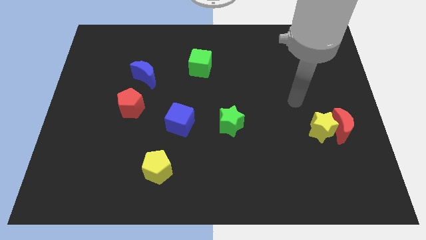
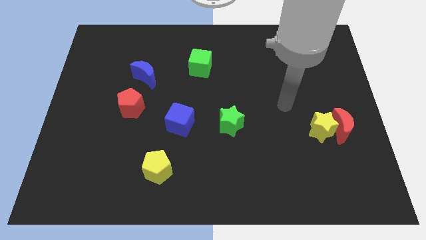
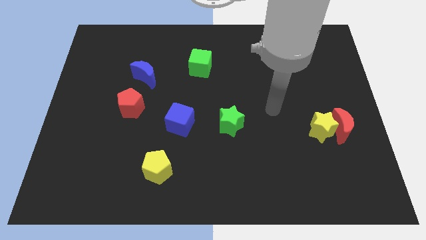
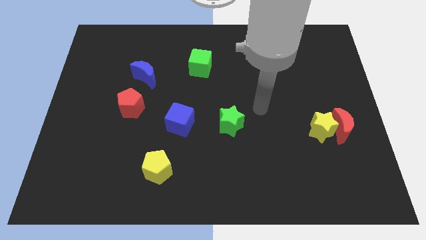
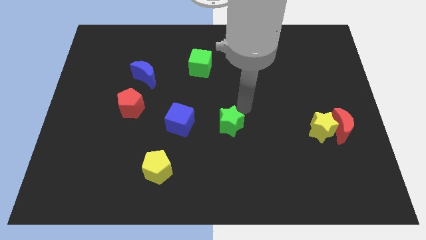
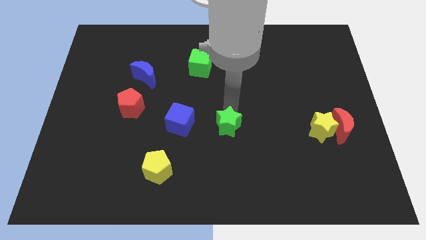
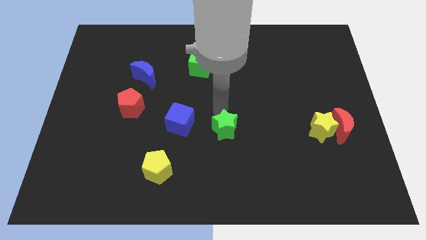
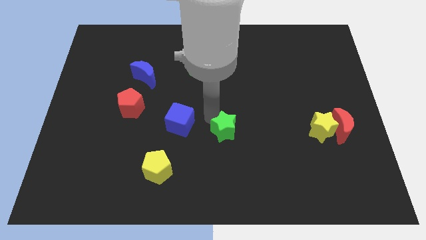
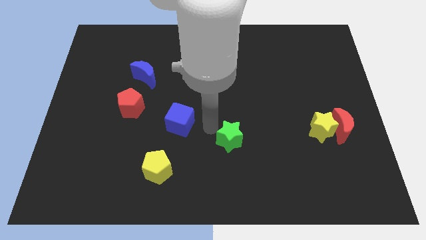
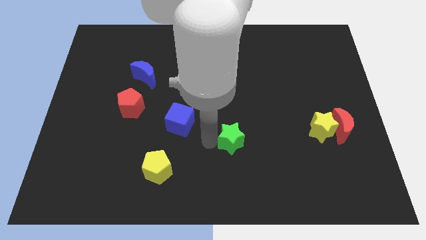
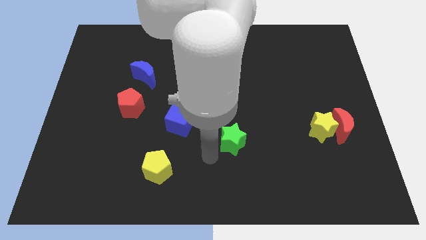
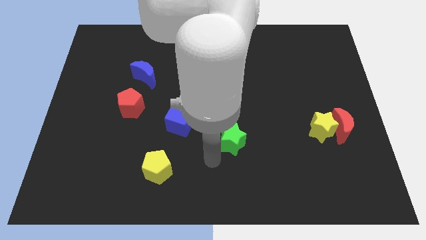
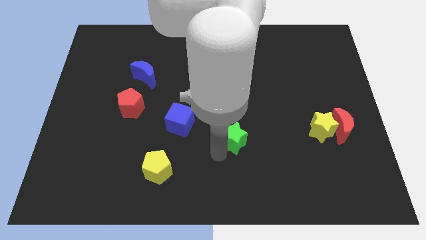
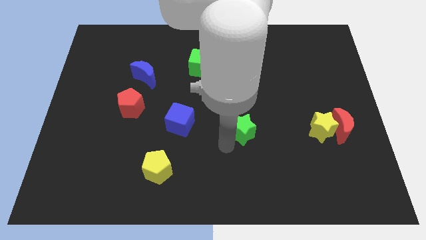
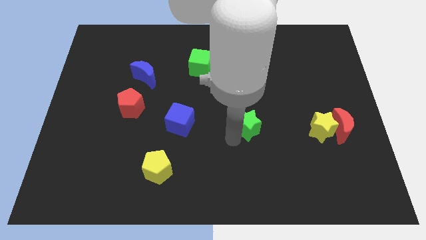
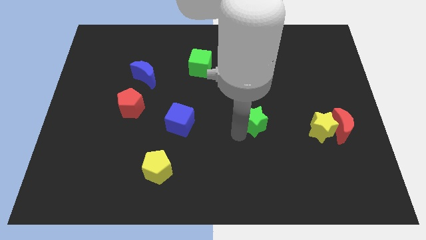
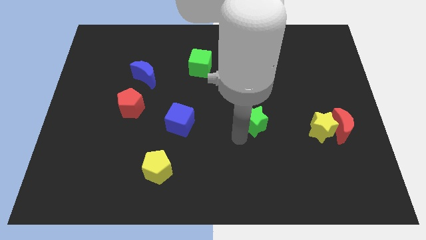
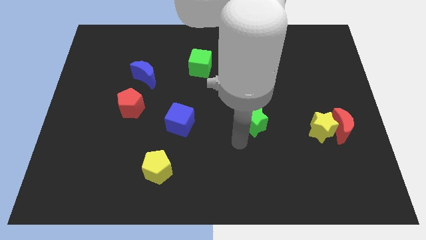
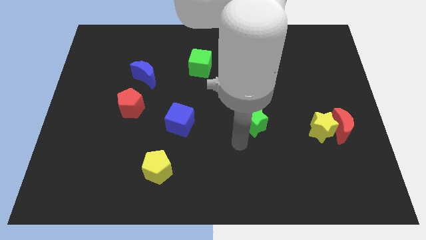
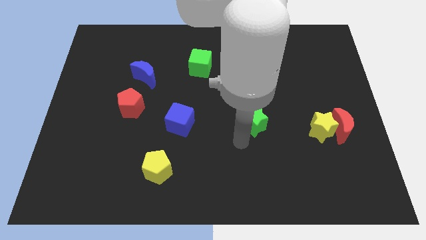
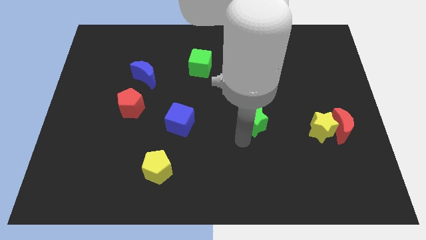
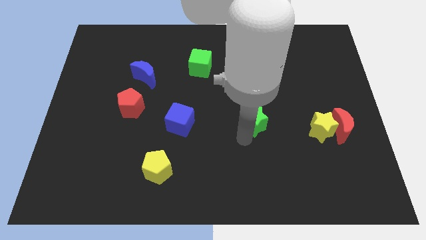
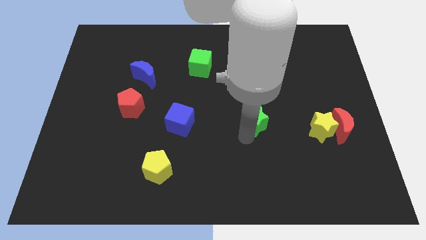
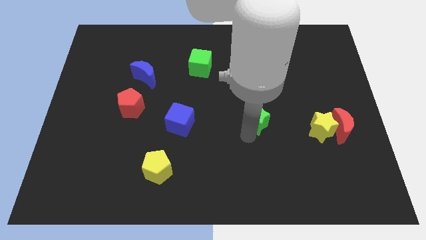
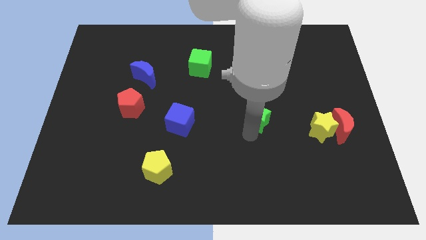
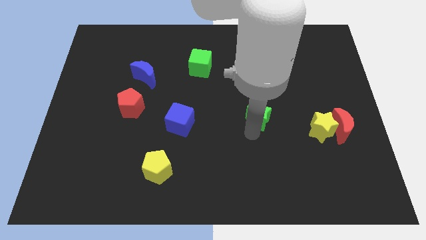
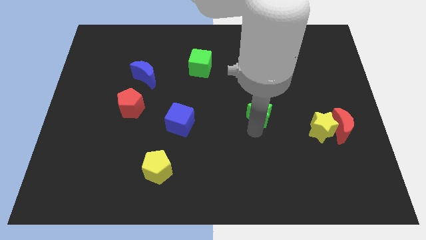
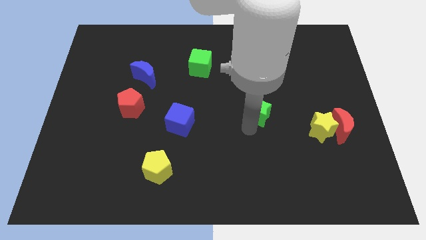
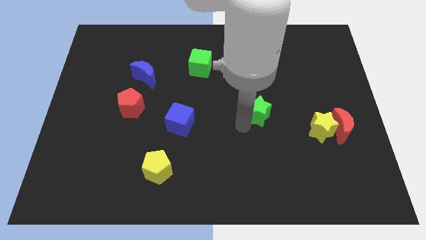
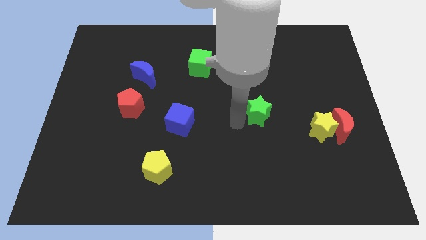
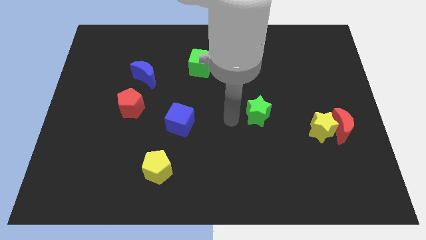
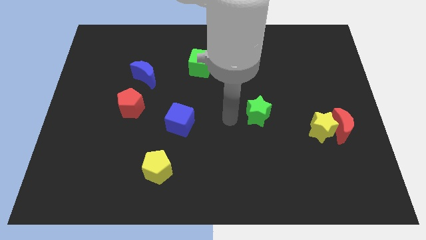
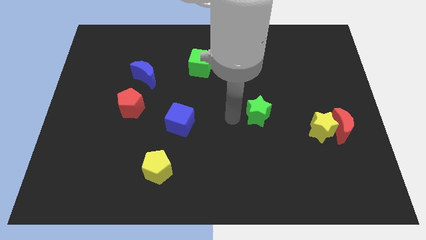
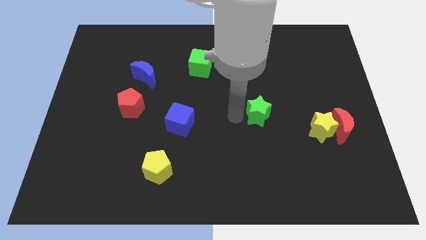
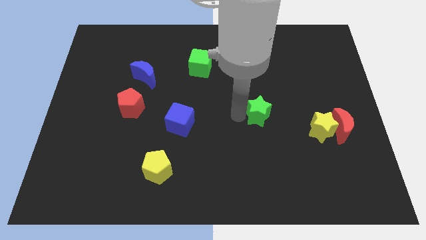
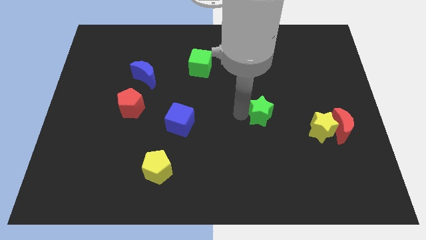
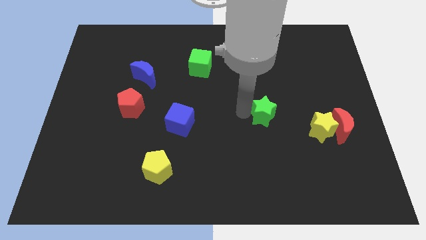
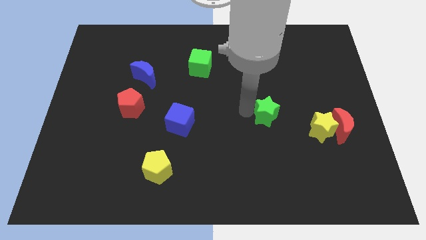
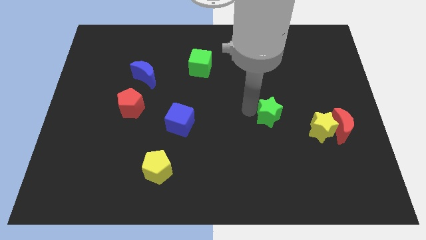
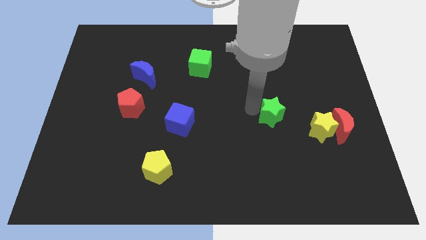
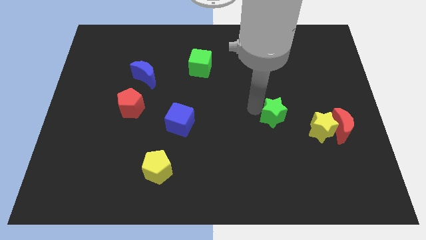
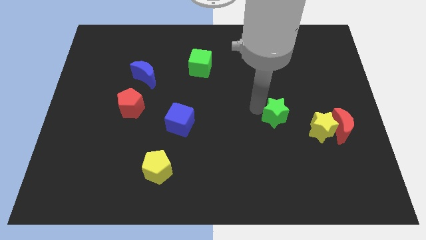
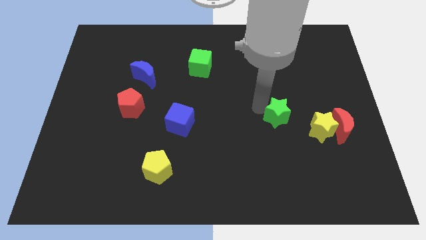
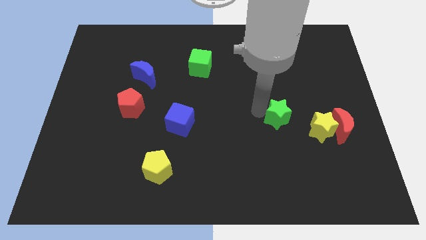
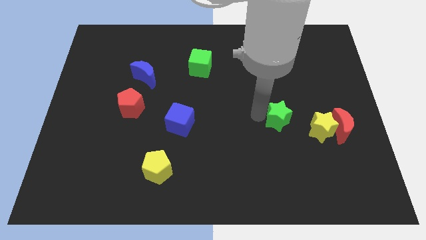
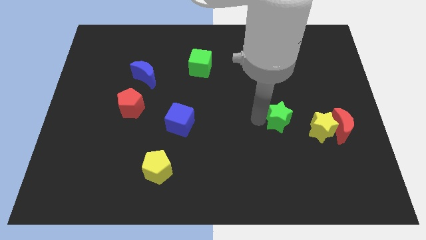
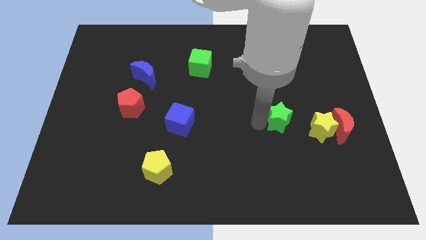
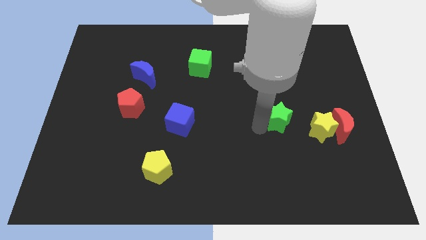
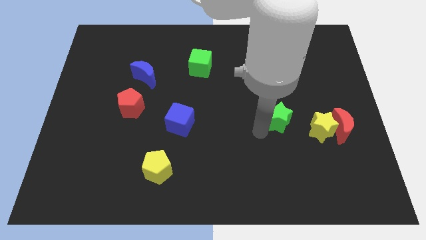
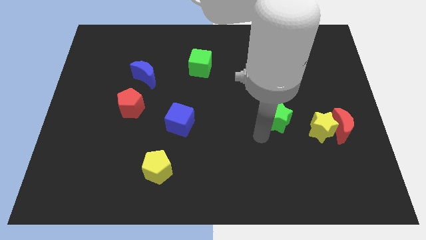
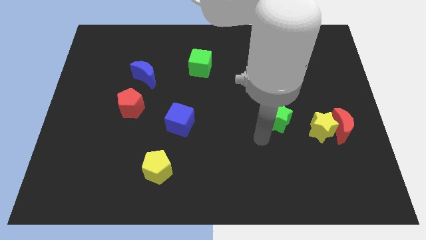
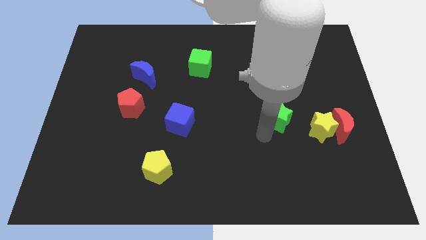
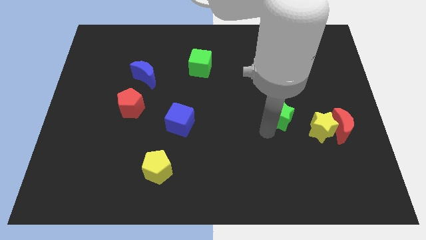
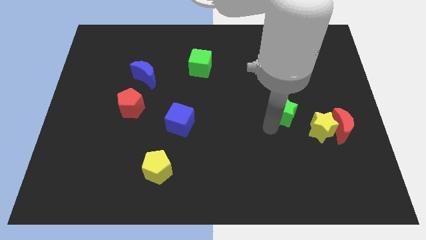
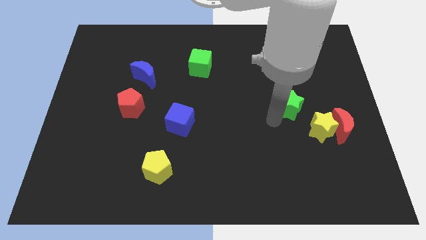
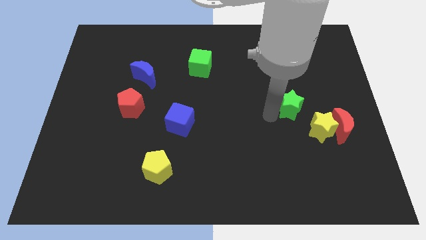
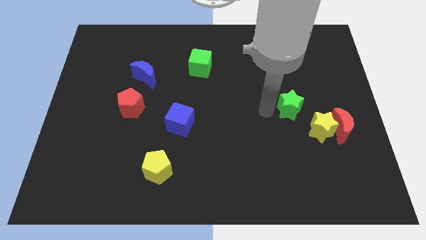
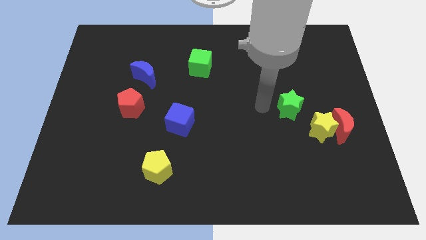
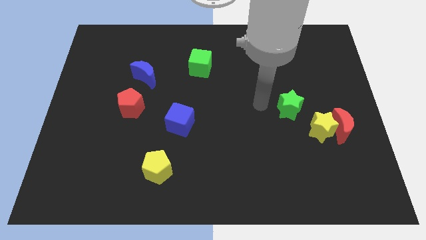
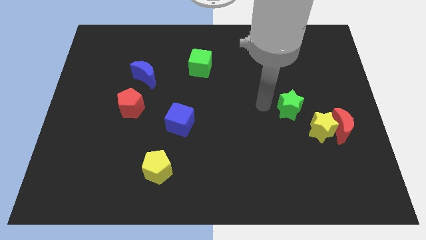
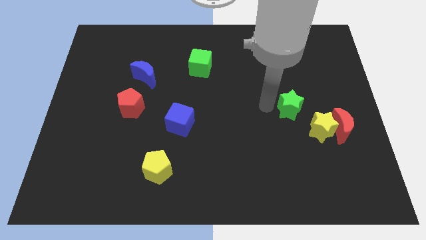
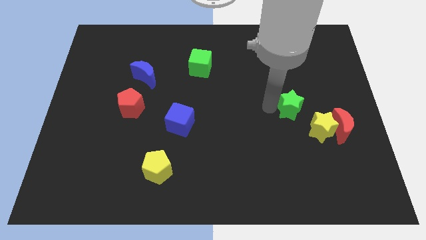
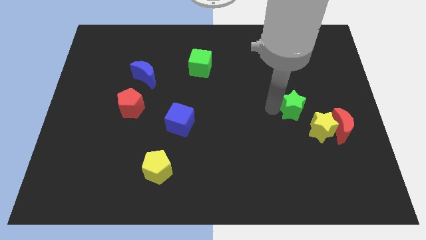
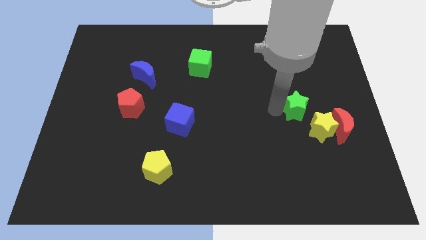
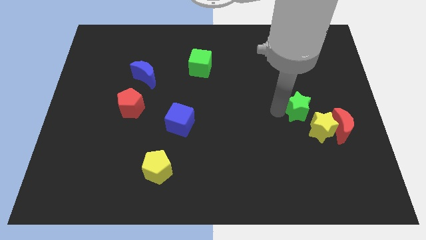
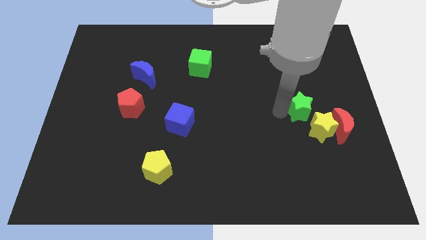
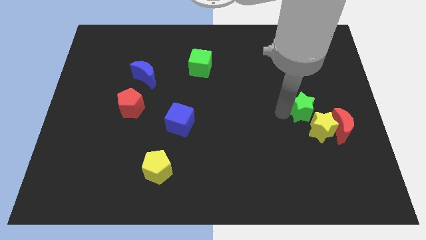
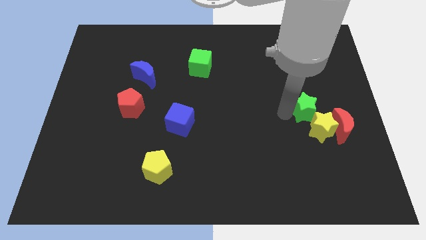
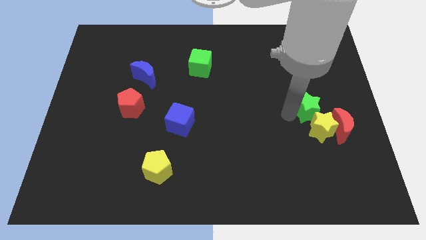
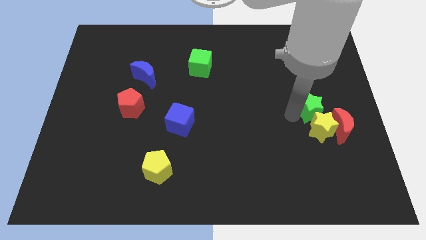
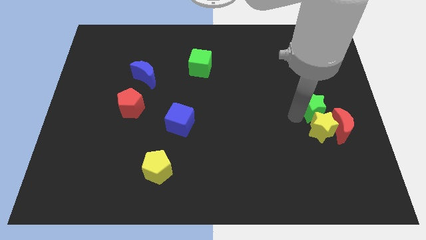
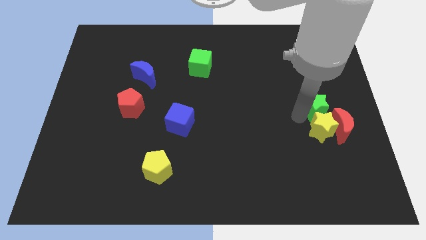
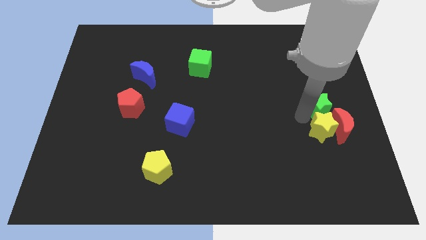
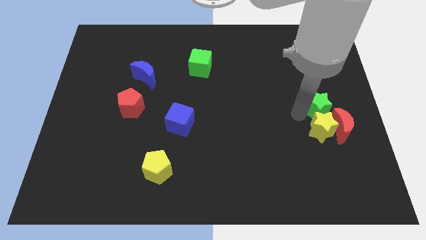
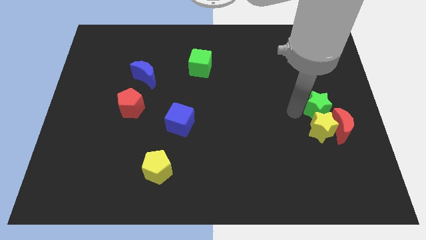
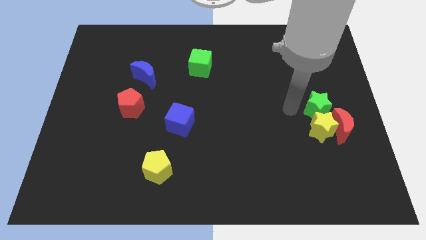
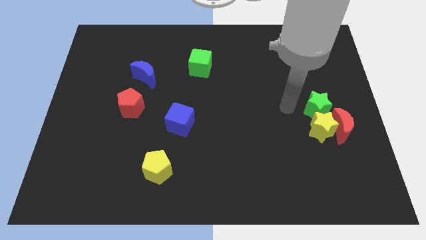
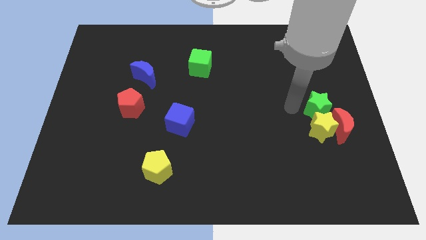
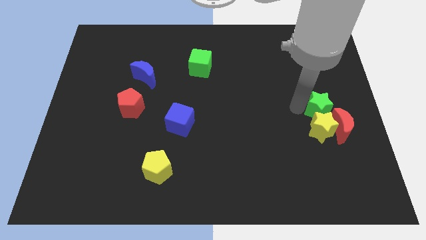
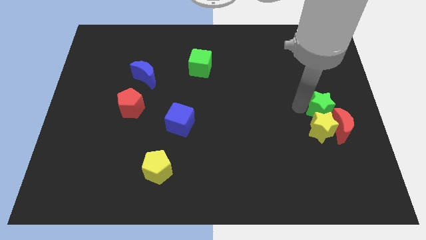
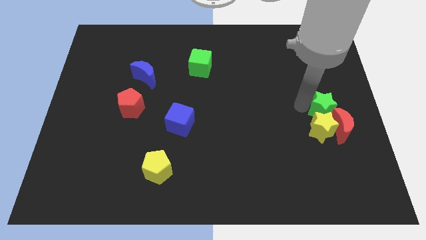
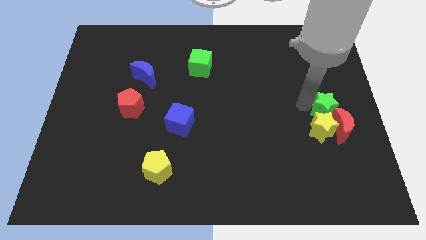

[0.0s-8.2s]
move the green star to the right side
